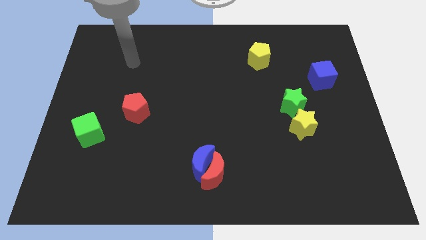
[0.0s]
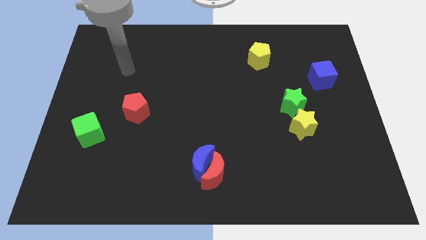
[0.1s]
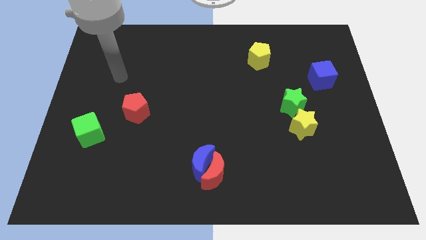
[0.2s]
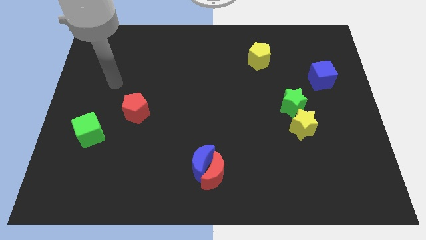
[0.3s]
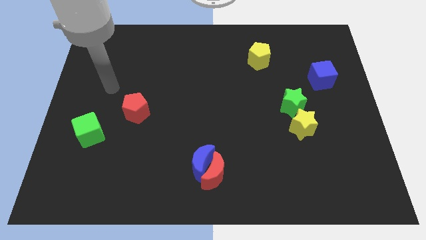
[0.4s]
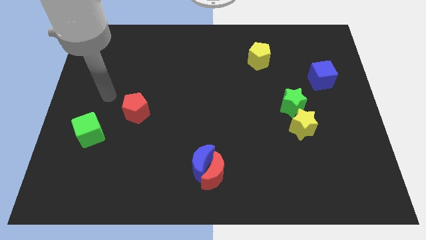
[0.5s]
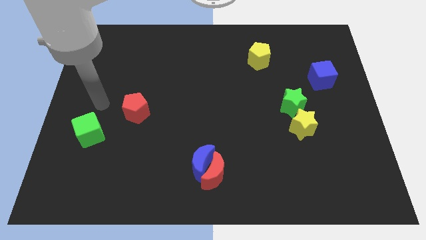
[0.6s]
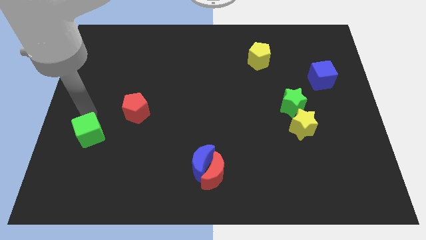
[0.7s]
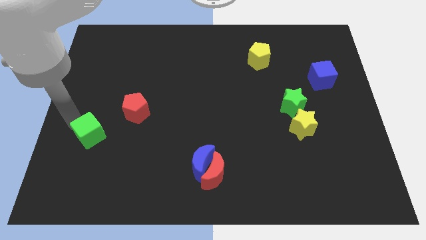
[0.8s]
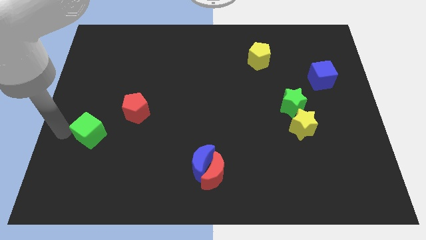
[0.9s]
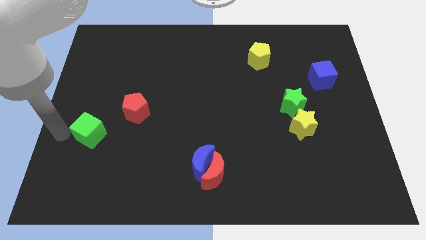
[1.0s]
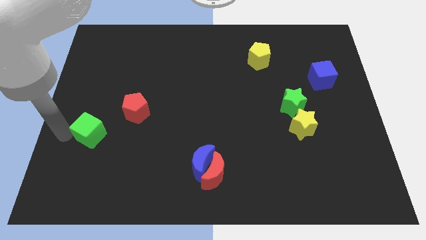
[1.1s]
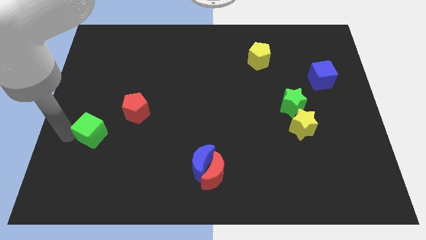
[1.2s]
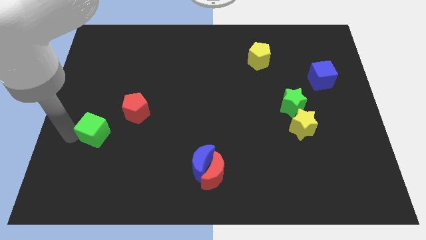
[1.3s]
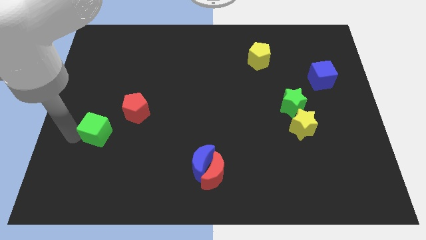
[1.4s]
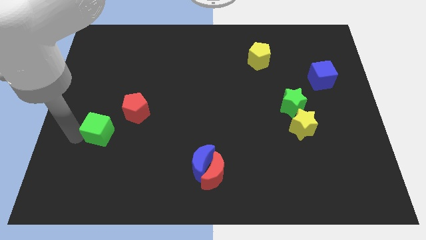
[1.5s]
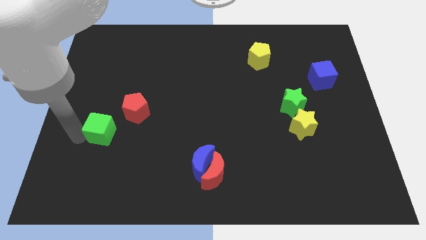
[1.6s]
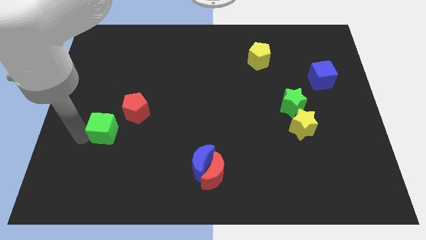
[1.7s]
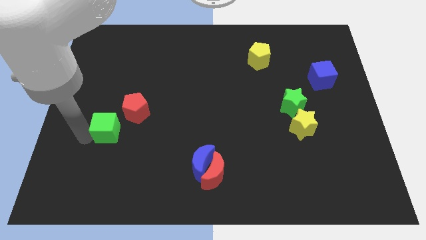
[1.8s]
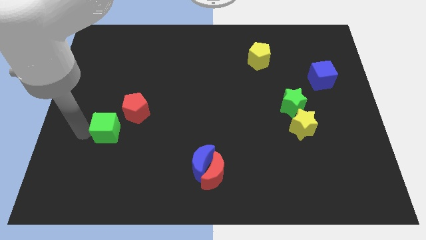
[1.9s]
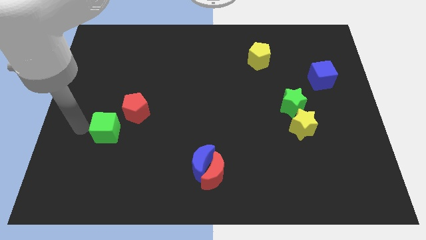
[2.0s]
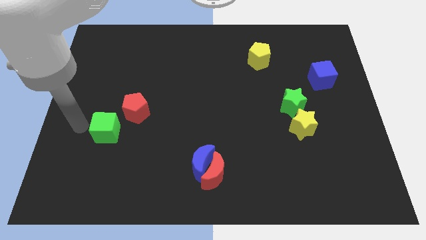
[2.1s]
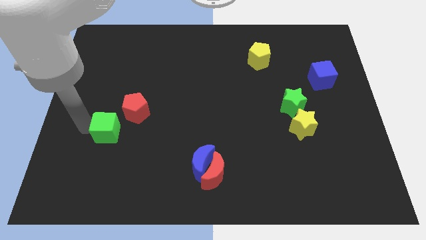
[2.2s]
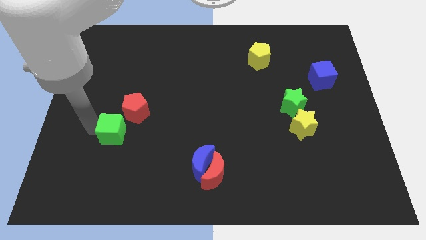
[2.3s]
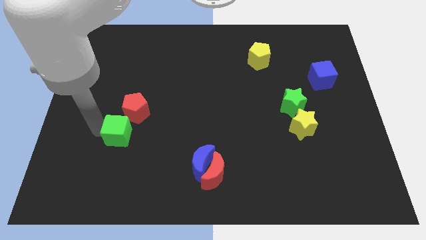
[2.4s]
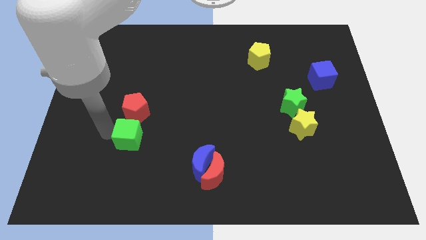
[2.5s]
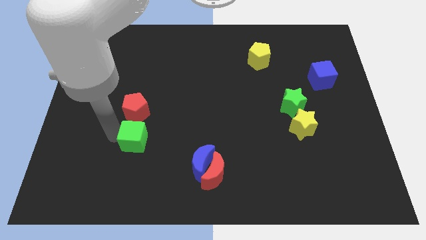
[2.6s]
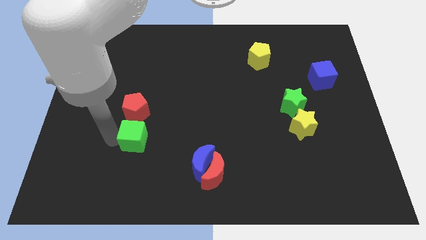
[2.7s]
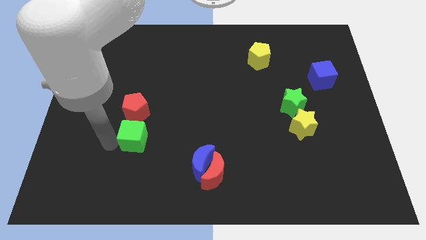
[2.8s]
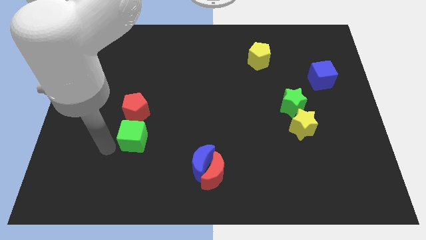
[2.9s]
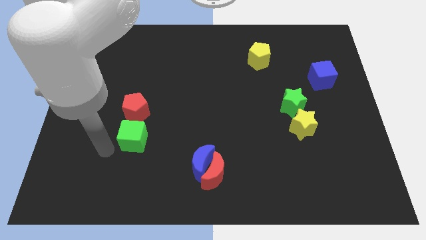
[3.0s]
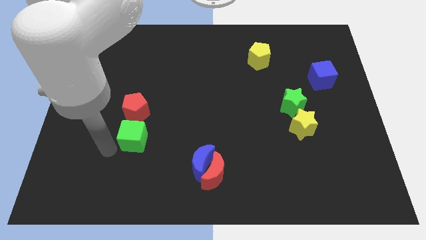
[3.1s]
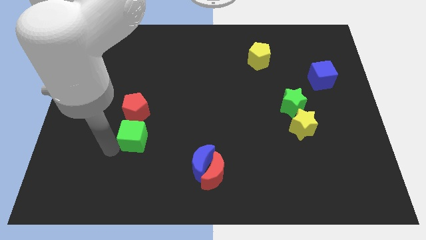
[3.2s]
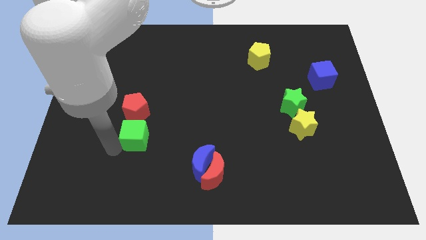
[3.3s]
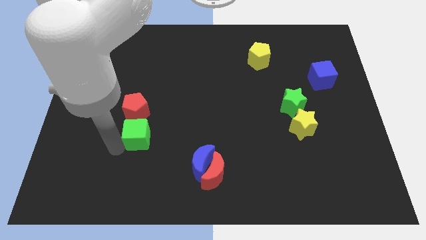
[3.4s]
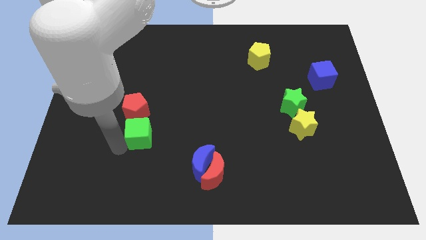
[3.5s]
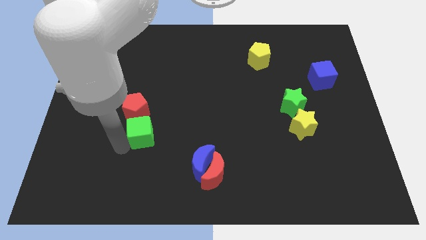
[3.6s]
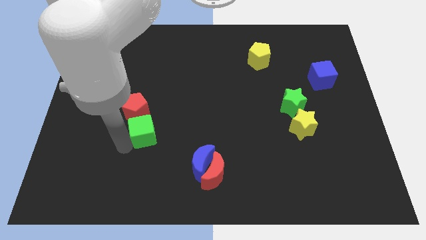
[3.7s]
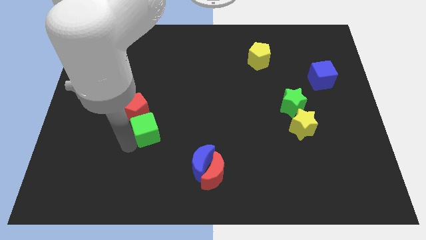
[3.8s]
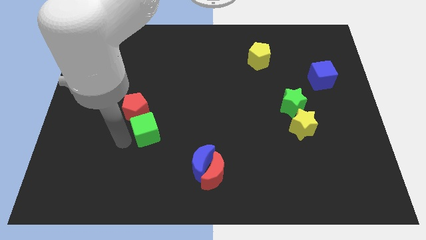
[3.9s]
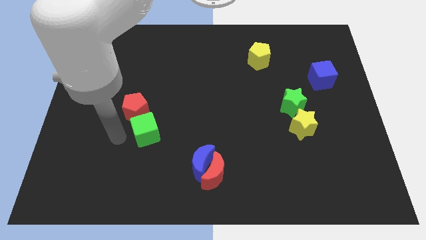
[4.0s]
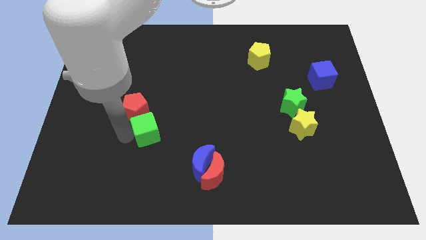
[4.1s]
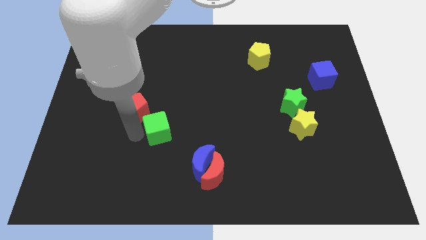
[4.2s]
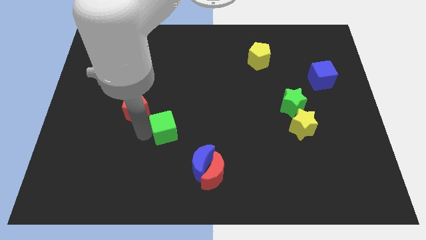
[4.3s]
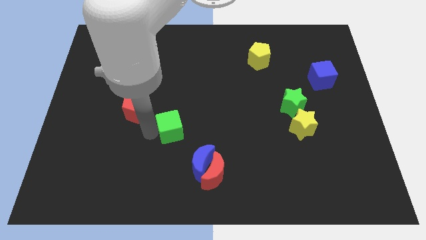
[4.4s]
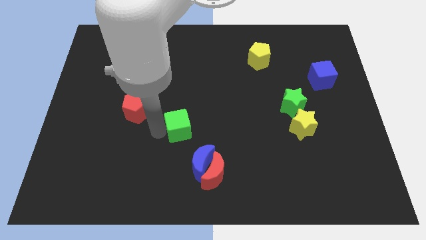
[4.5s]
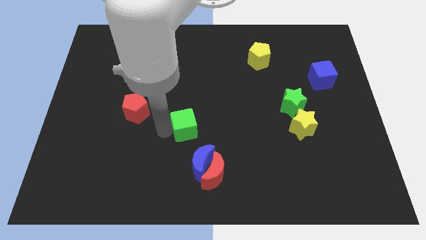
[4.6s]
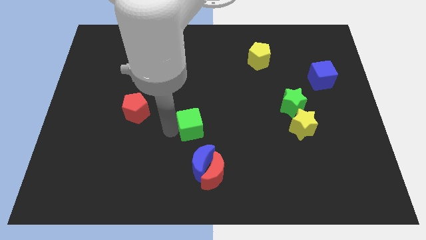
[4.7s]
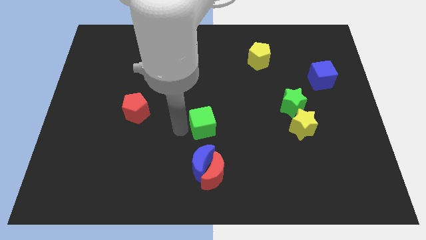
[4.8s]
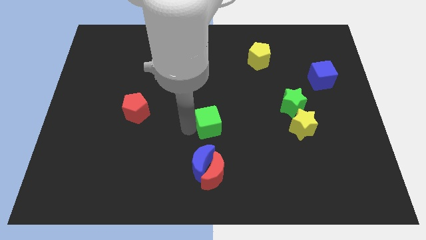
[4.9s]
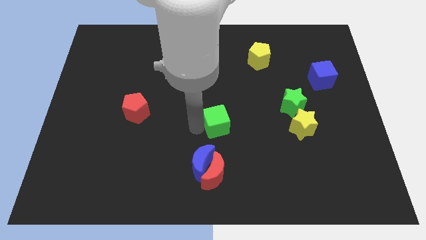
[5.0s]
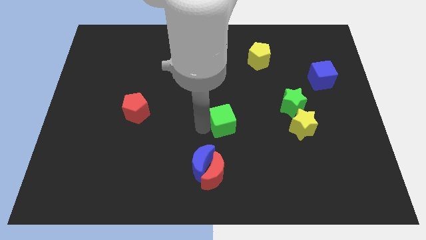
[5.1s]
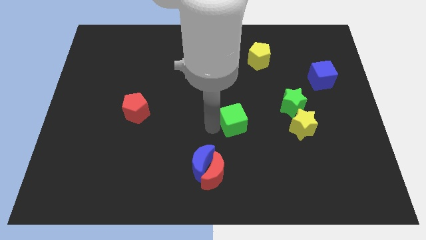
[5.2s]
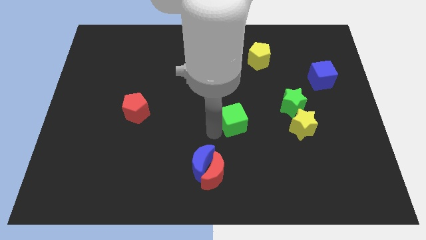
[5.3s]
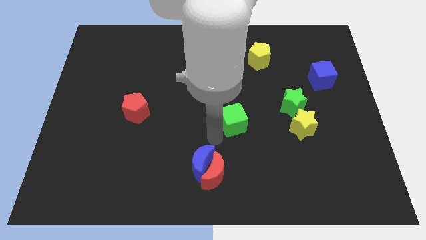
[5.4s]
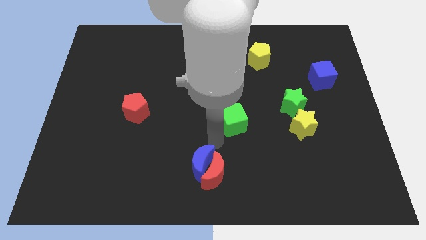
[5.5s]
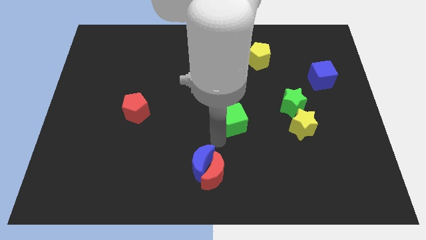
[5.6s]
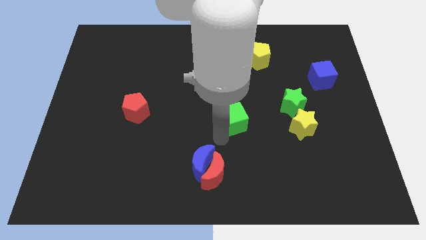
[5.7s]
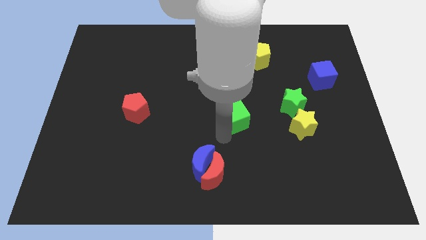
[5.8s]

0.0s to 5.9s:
put the green cube left of the green star

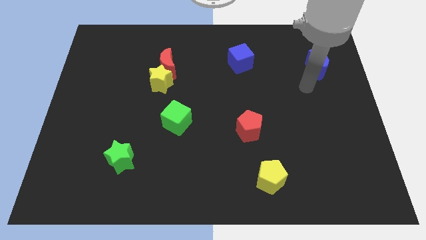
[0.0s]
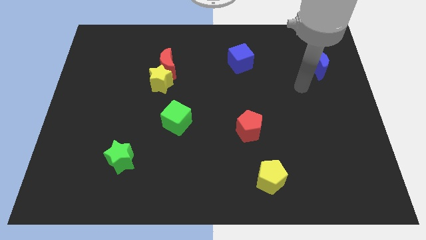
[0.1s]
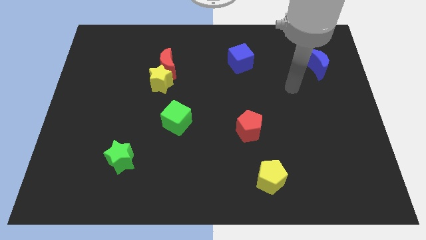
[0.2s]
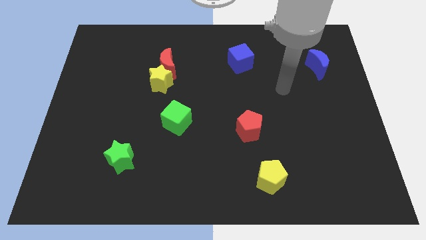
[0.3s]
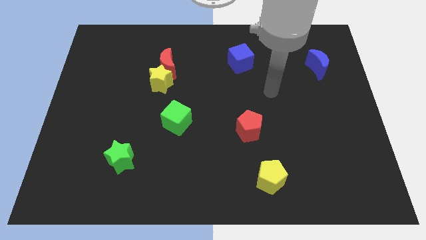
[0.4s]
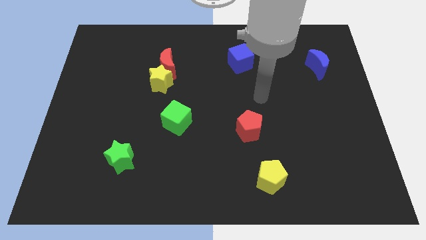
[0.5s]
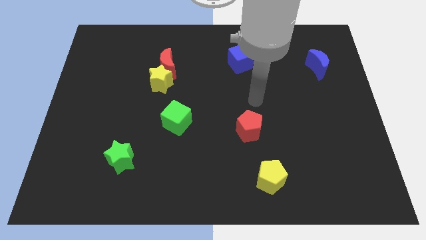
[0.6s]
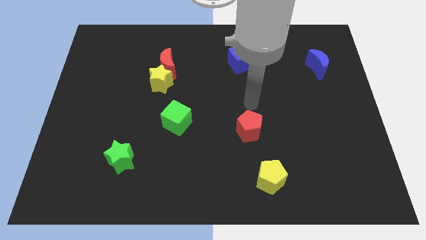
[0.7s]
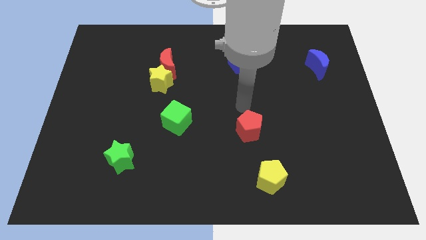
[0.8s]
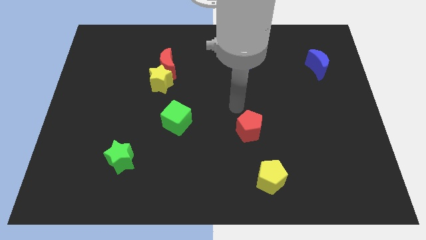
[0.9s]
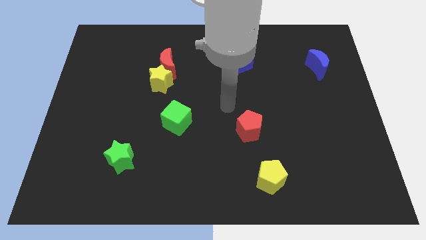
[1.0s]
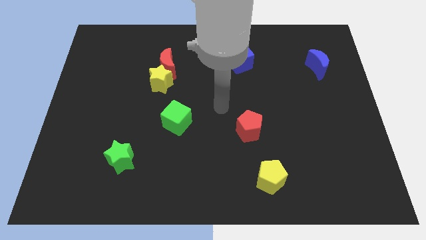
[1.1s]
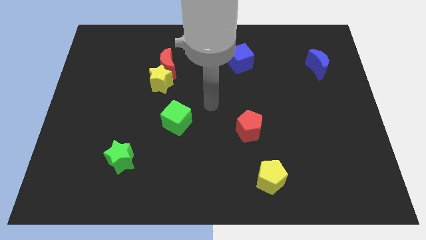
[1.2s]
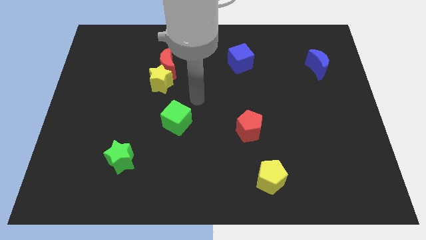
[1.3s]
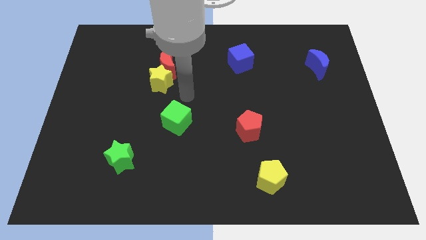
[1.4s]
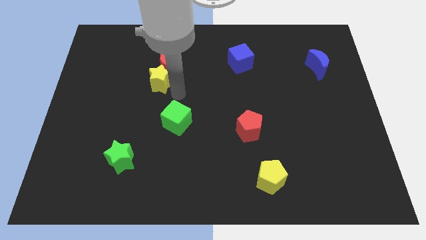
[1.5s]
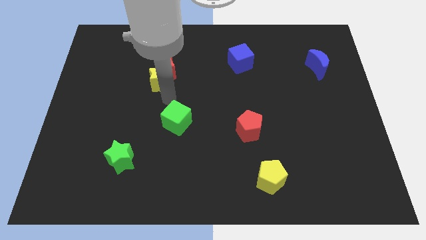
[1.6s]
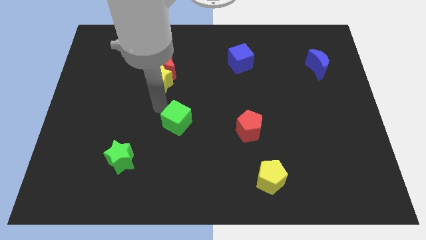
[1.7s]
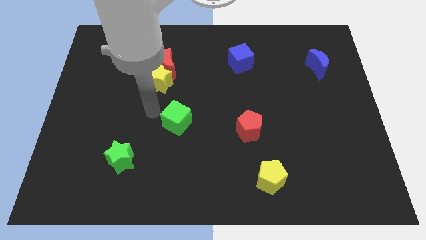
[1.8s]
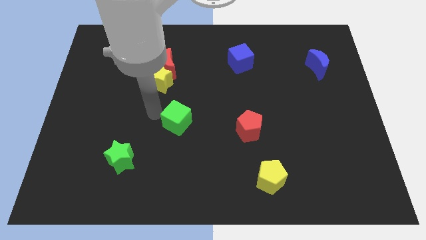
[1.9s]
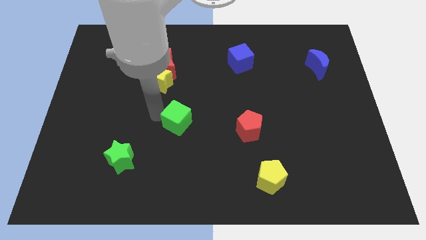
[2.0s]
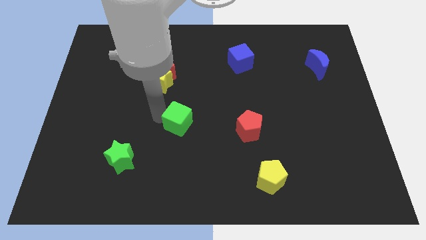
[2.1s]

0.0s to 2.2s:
slide the green cube just left of the red pentagon
